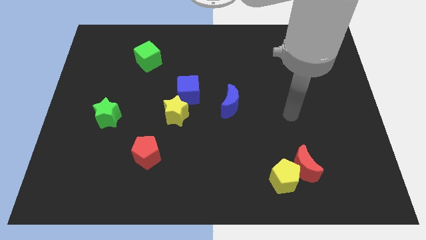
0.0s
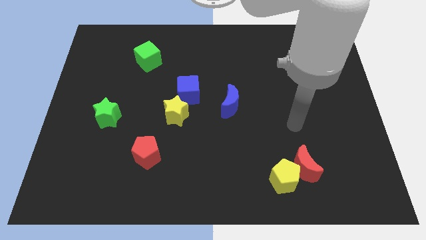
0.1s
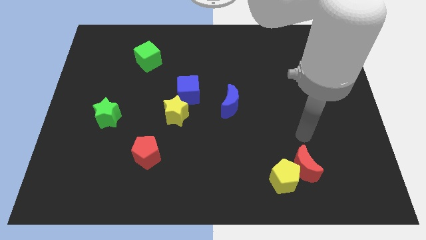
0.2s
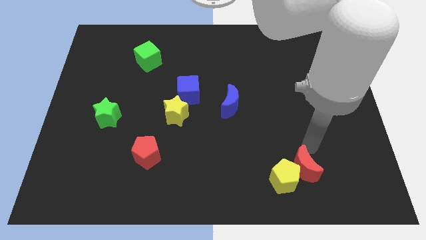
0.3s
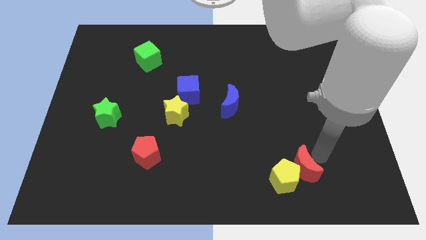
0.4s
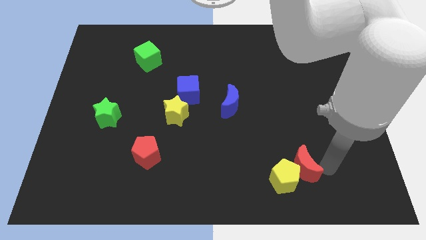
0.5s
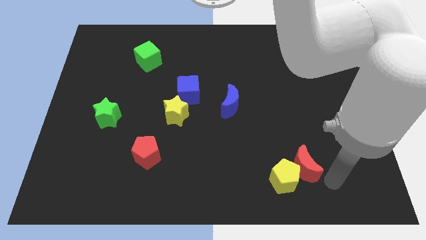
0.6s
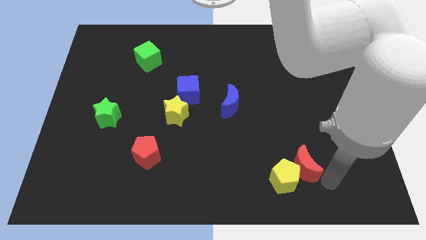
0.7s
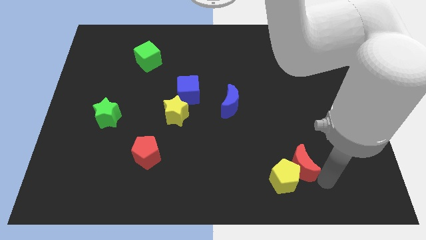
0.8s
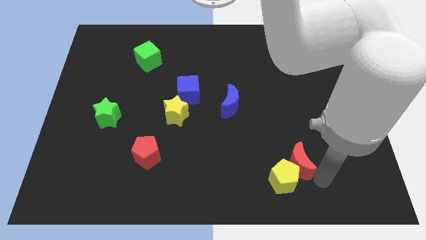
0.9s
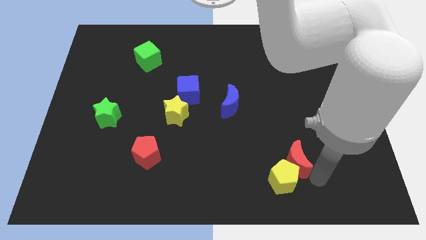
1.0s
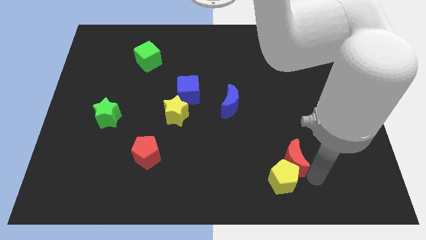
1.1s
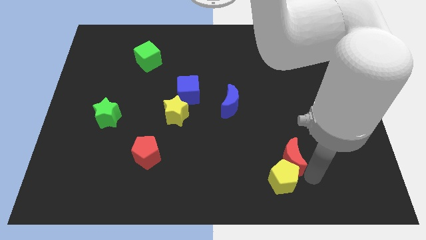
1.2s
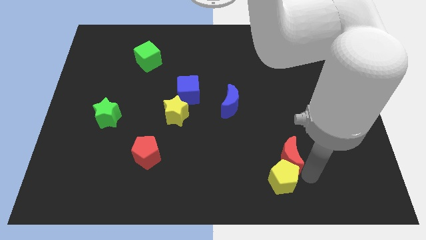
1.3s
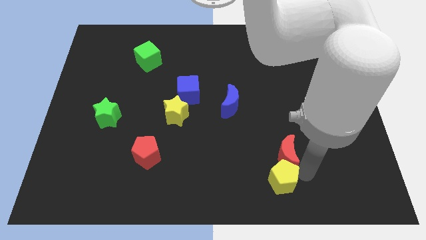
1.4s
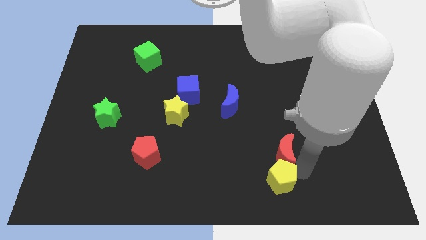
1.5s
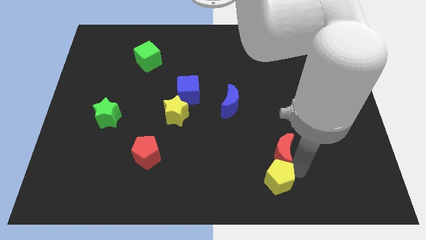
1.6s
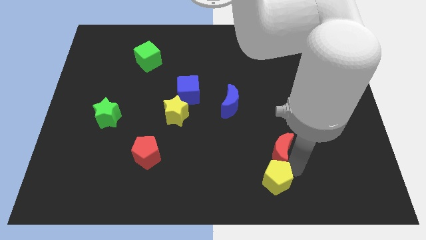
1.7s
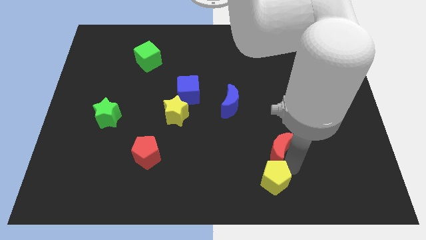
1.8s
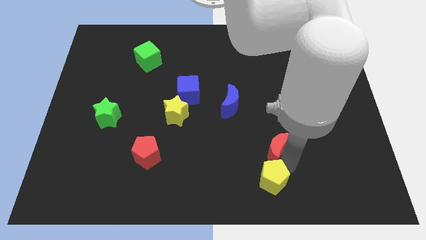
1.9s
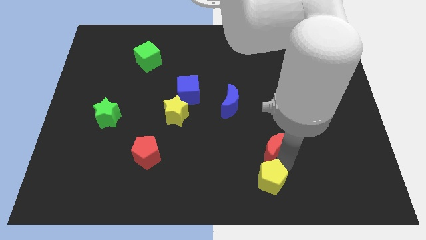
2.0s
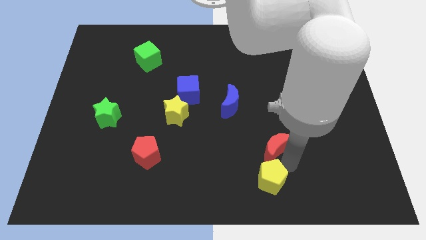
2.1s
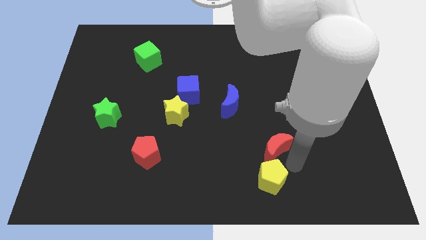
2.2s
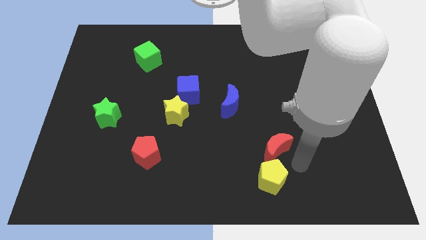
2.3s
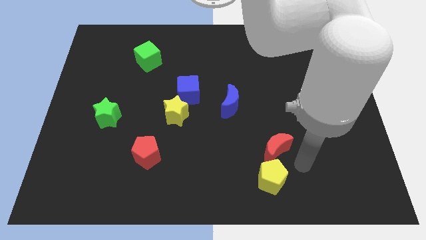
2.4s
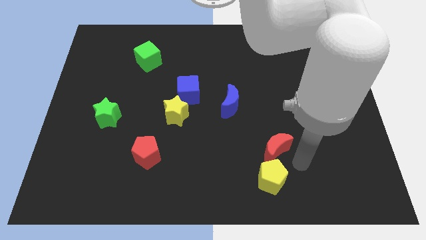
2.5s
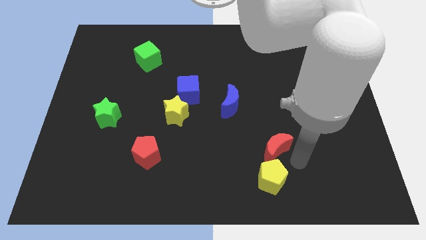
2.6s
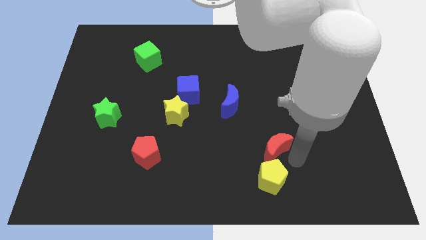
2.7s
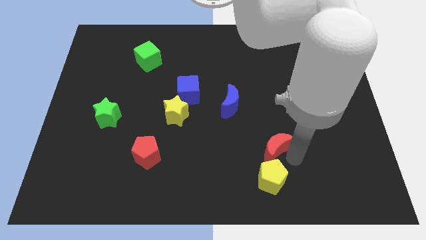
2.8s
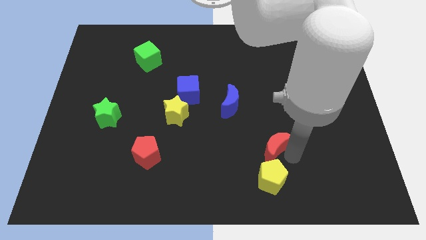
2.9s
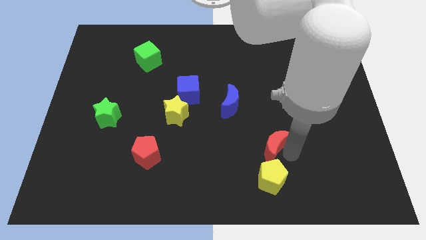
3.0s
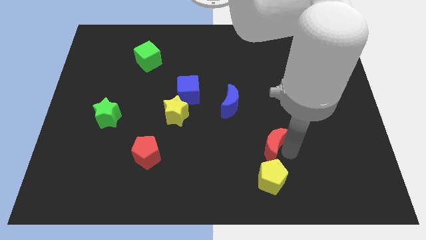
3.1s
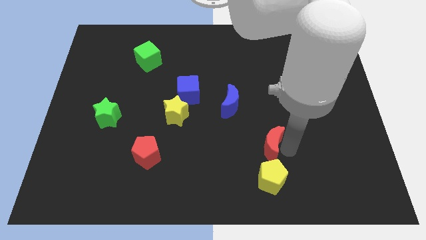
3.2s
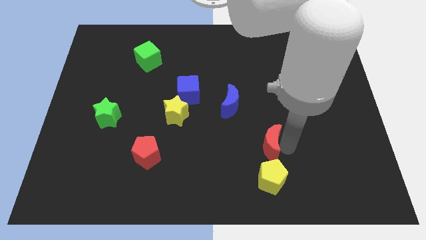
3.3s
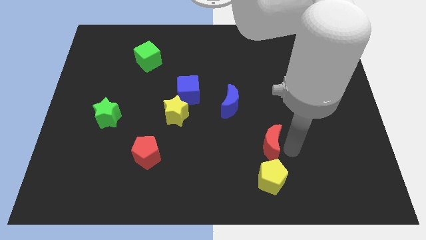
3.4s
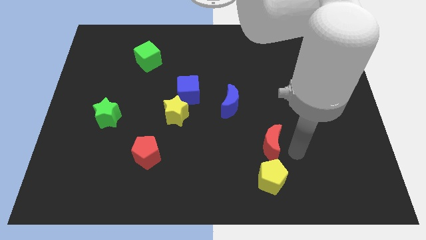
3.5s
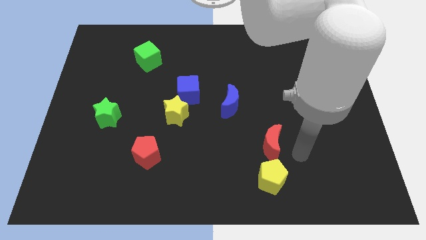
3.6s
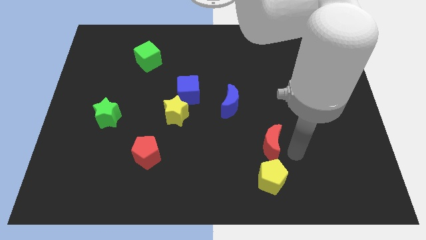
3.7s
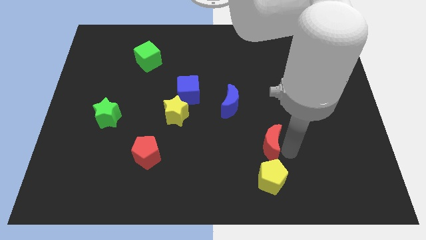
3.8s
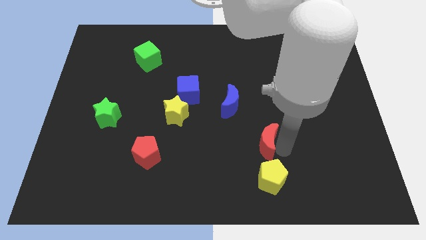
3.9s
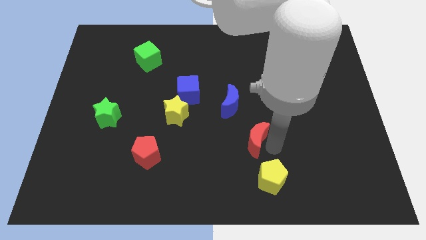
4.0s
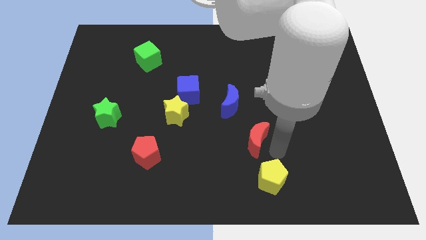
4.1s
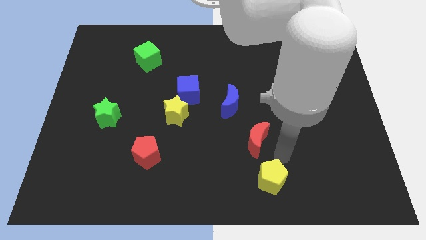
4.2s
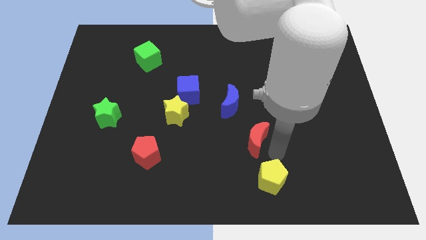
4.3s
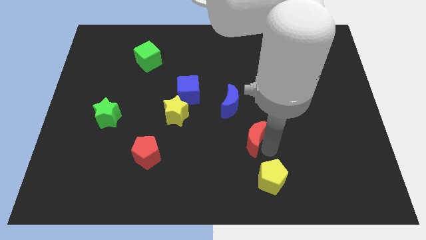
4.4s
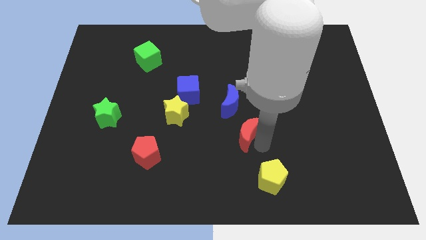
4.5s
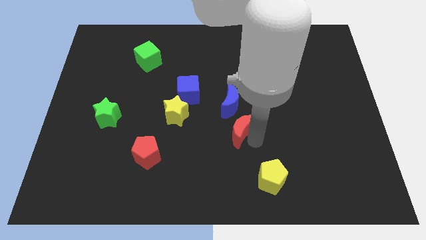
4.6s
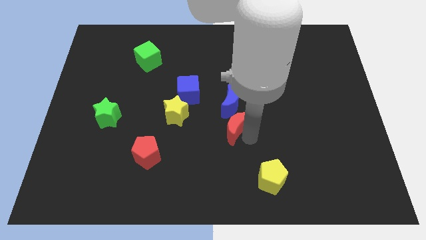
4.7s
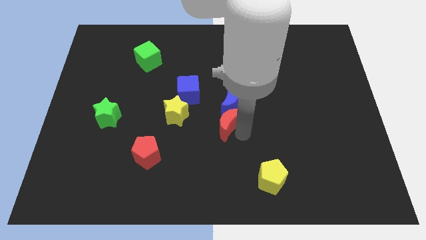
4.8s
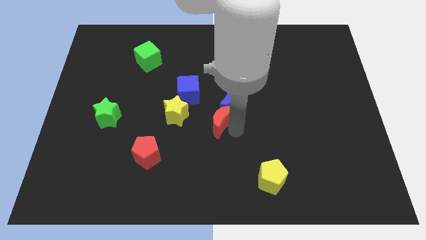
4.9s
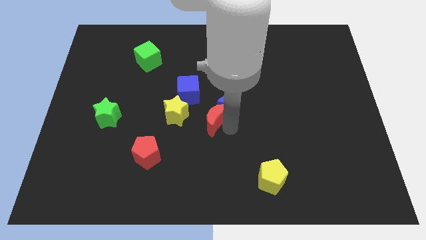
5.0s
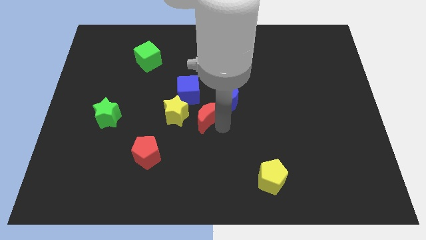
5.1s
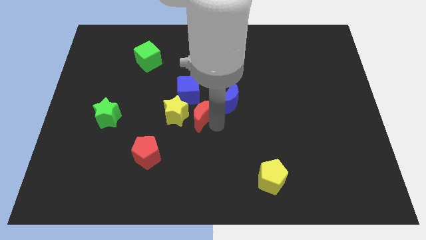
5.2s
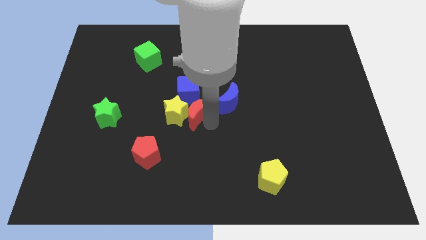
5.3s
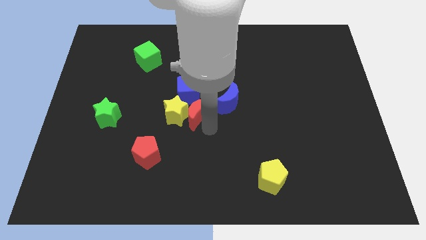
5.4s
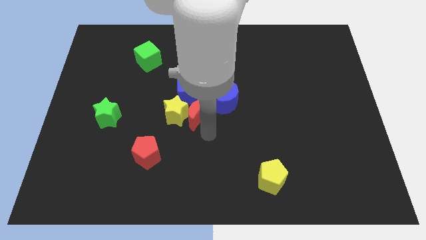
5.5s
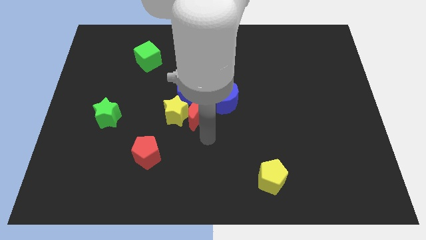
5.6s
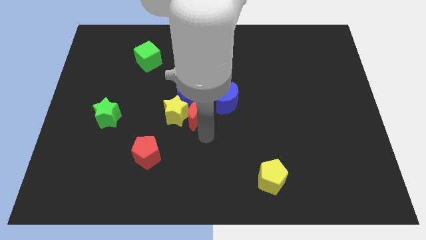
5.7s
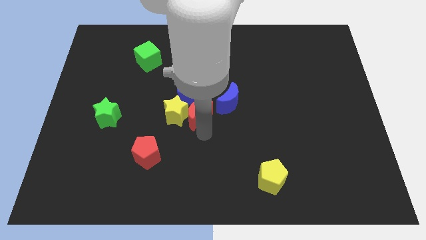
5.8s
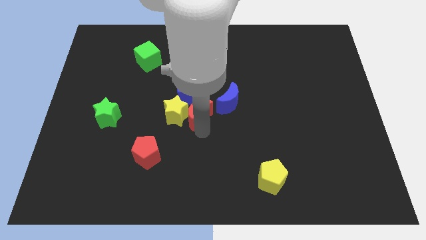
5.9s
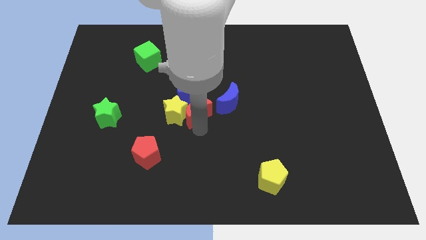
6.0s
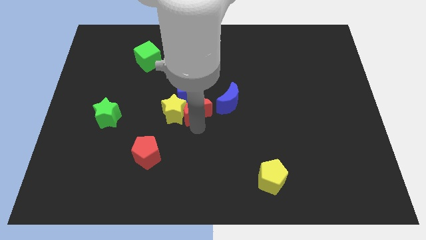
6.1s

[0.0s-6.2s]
slide the red moon towards the blue cube

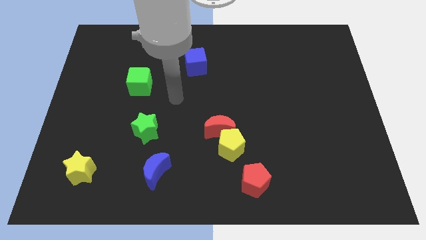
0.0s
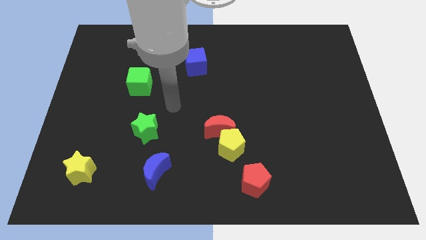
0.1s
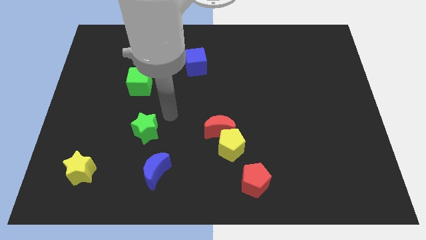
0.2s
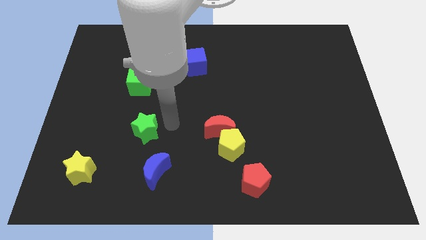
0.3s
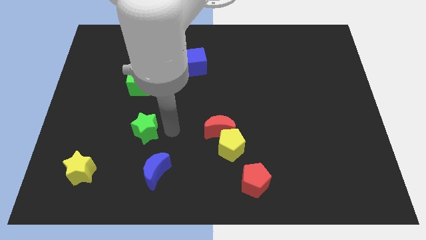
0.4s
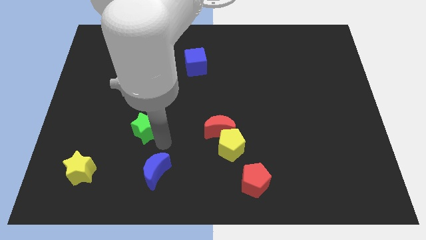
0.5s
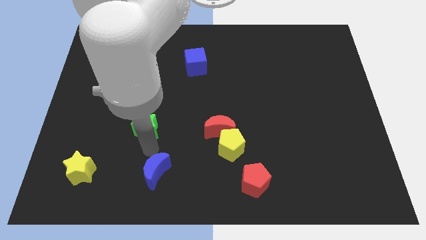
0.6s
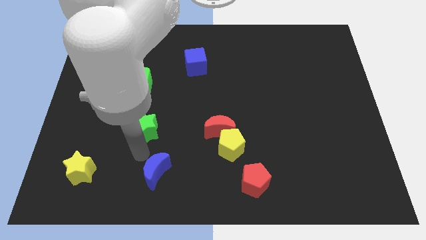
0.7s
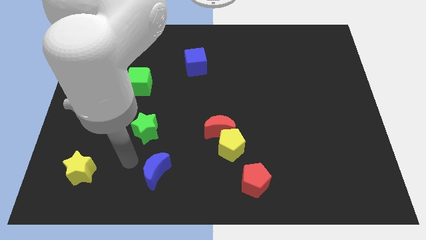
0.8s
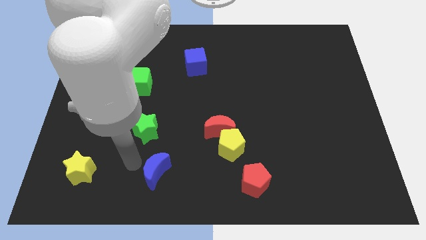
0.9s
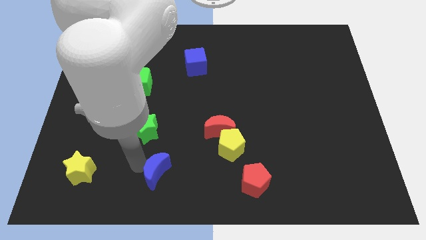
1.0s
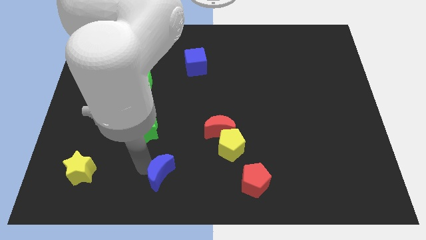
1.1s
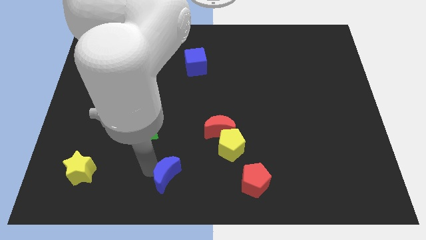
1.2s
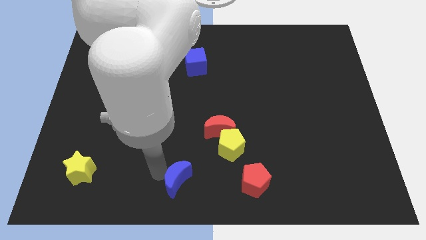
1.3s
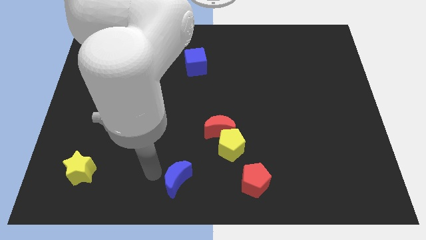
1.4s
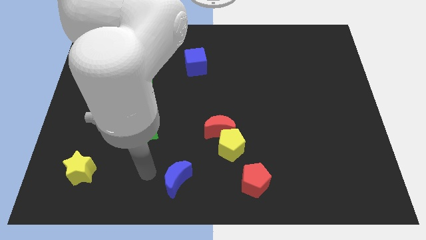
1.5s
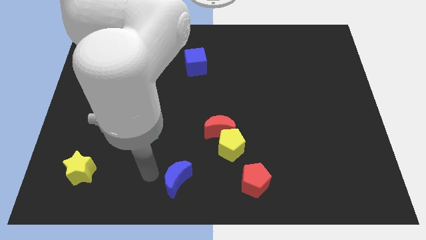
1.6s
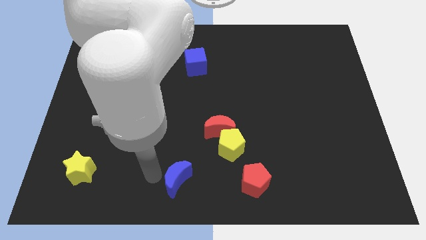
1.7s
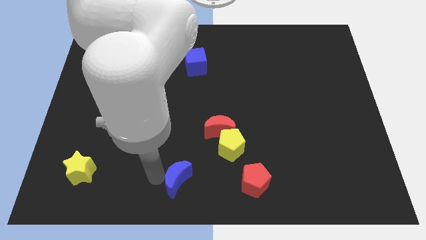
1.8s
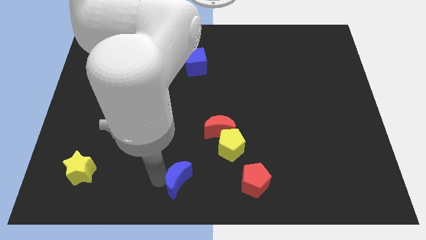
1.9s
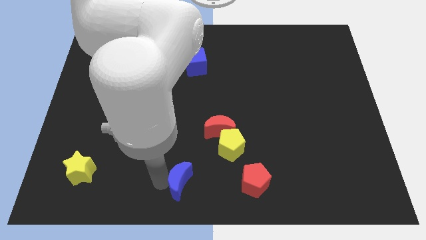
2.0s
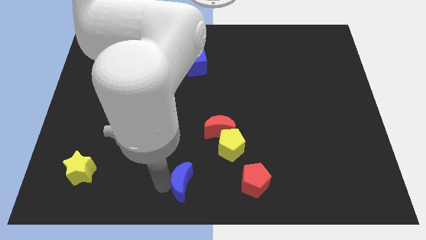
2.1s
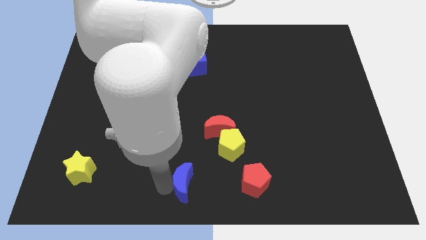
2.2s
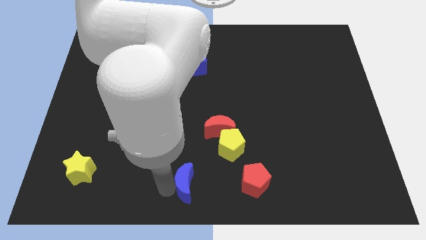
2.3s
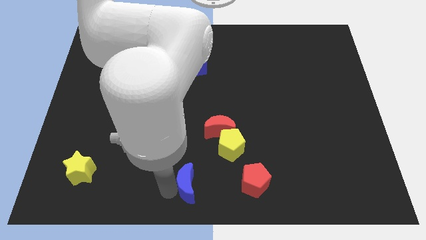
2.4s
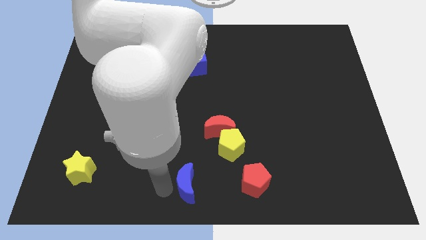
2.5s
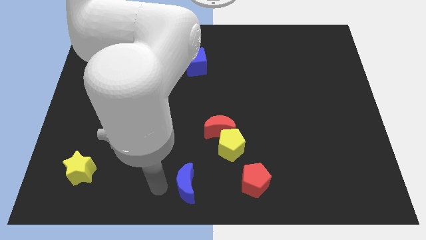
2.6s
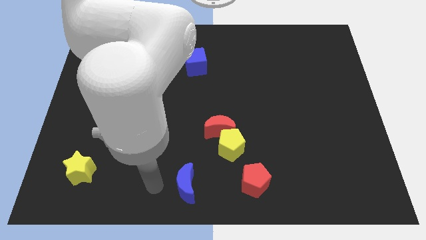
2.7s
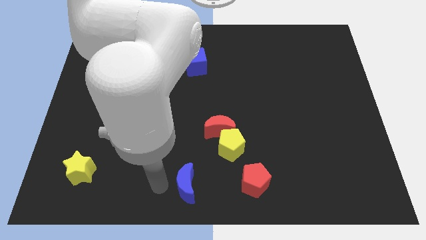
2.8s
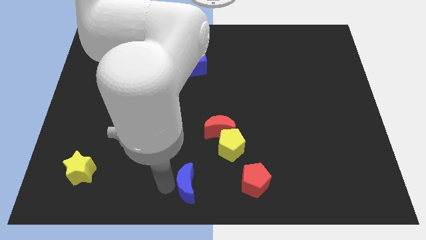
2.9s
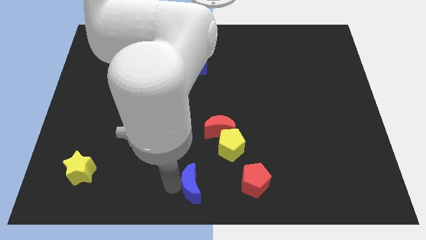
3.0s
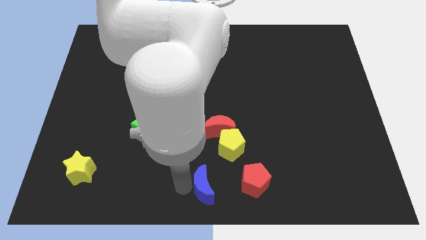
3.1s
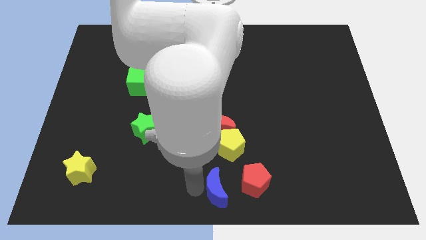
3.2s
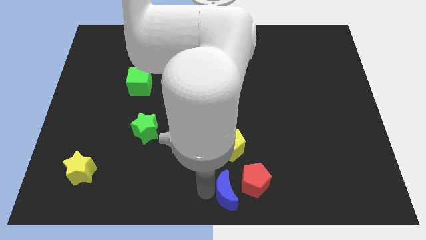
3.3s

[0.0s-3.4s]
move the blue moon next to the red pentagon
